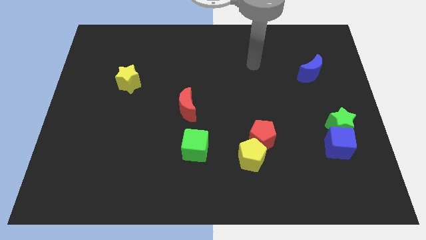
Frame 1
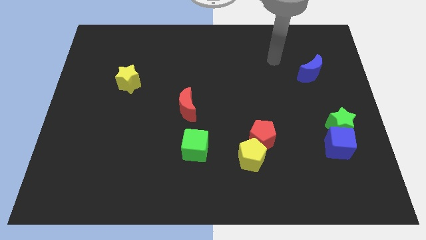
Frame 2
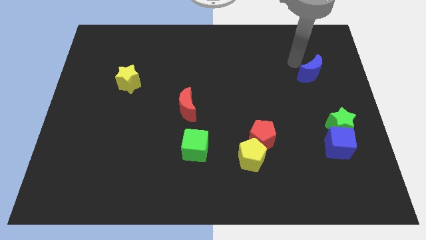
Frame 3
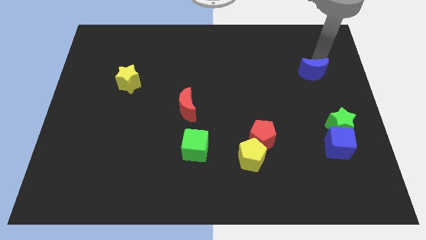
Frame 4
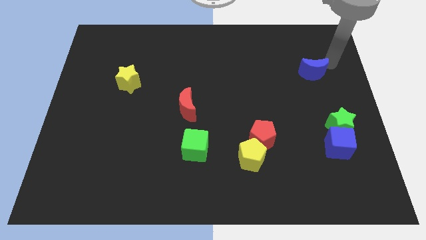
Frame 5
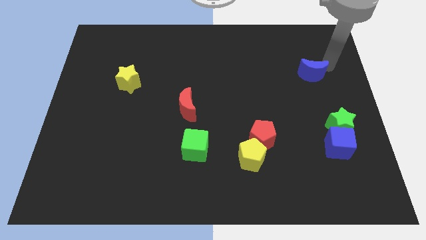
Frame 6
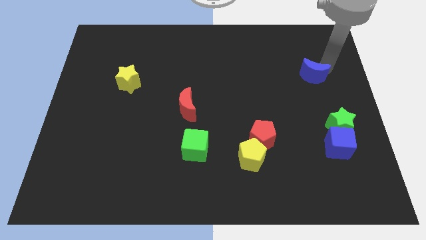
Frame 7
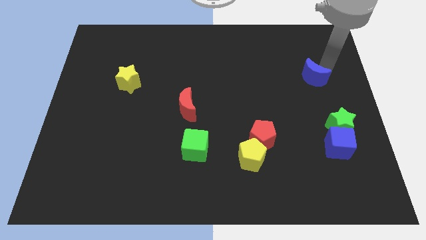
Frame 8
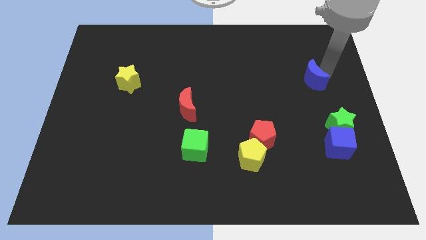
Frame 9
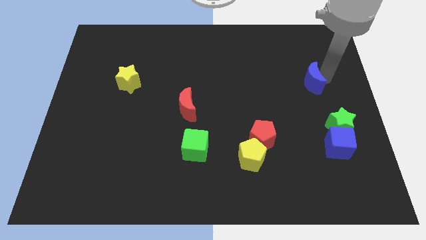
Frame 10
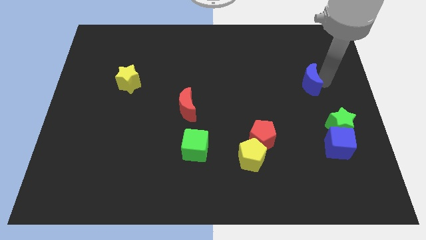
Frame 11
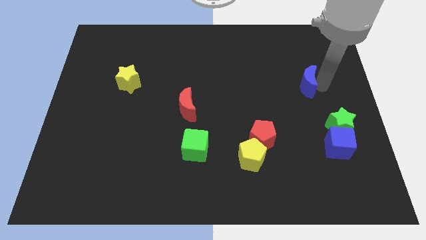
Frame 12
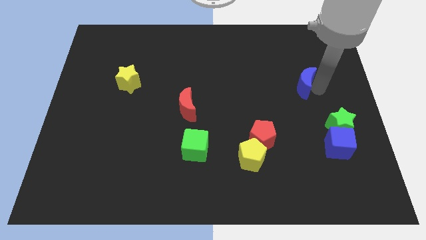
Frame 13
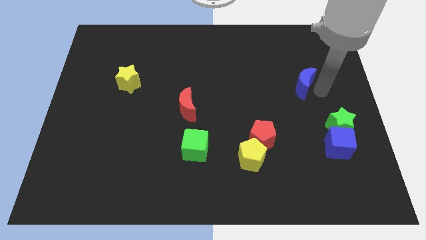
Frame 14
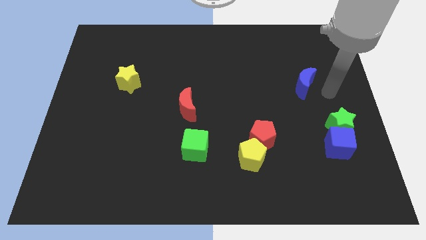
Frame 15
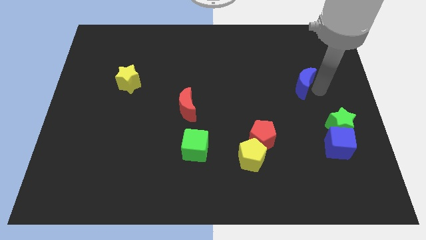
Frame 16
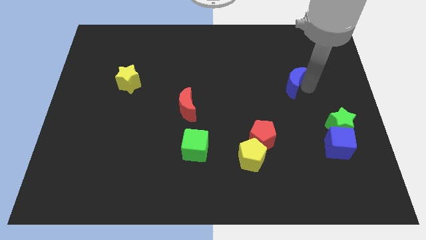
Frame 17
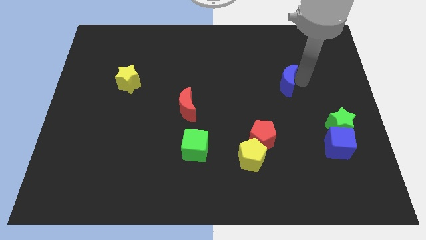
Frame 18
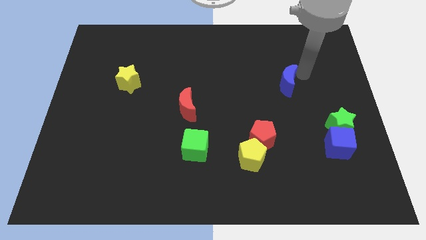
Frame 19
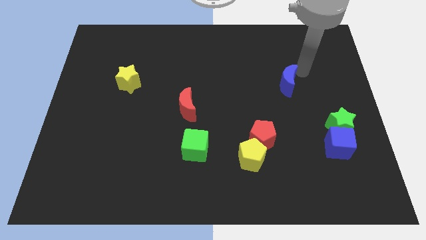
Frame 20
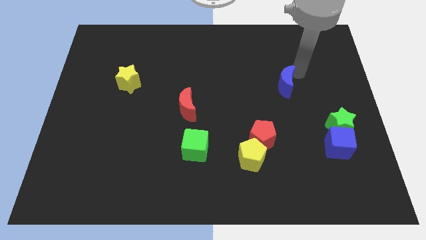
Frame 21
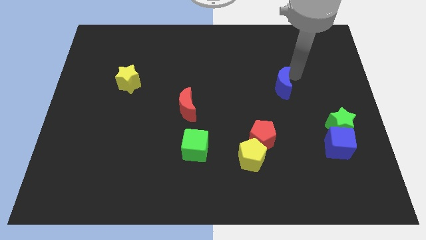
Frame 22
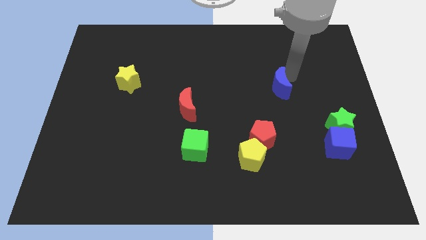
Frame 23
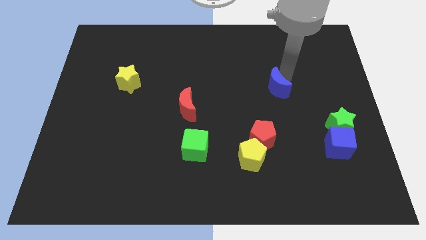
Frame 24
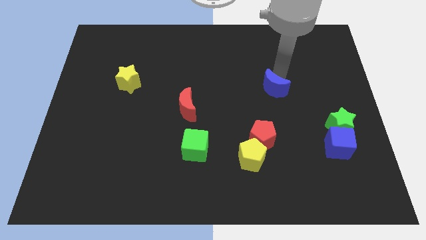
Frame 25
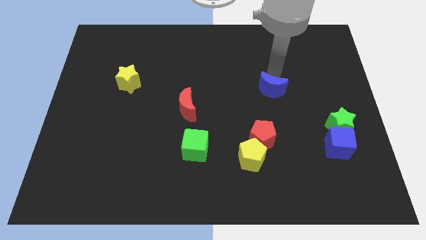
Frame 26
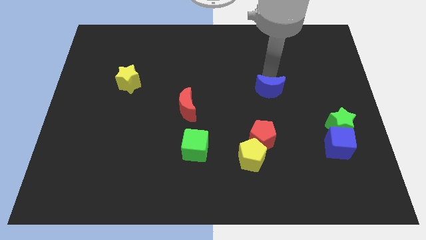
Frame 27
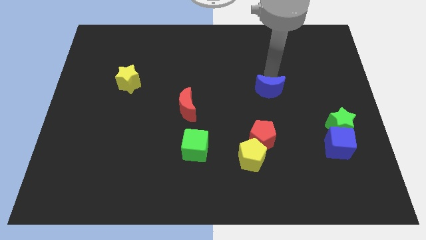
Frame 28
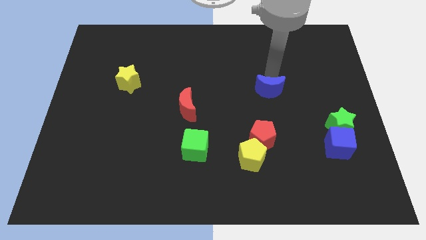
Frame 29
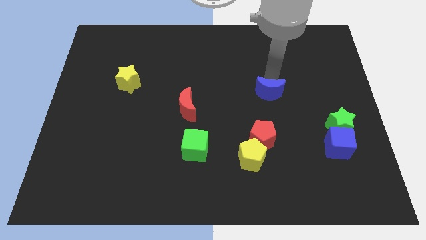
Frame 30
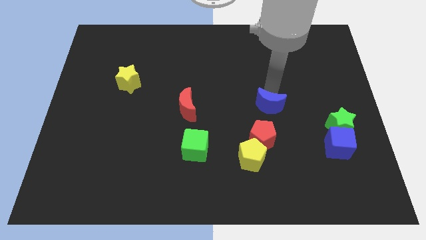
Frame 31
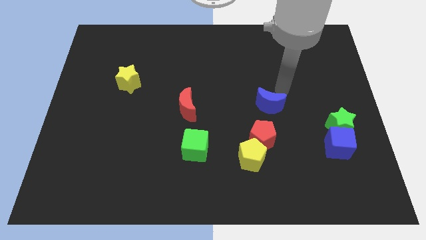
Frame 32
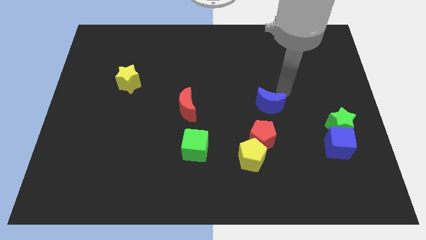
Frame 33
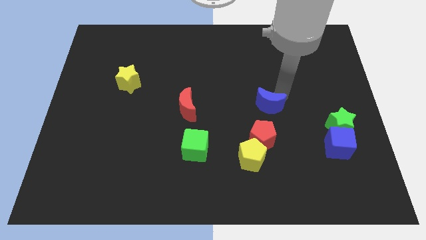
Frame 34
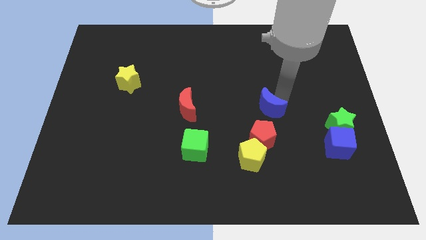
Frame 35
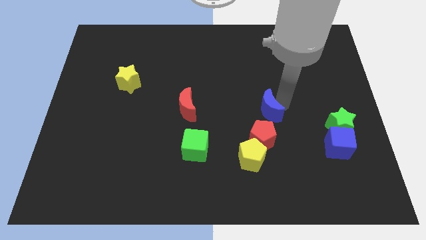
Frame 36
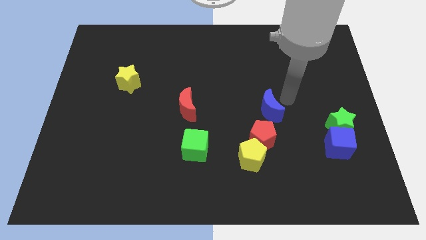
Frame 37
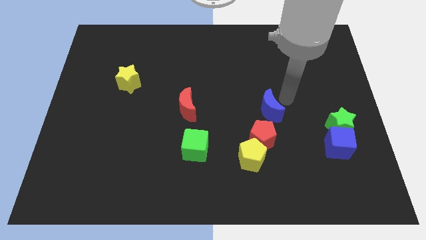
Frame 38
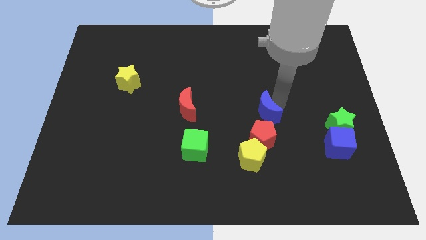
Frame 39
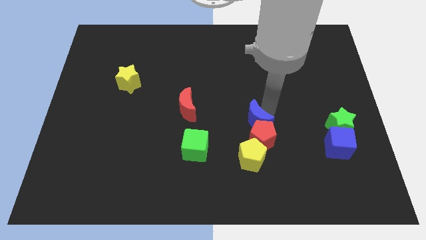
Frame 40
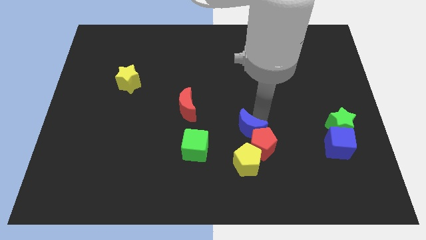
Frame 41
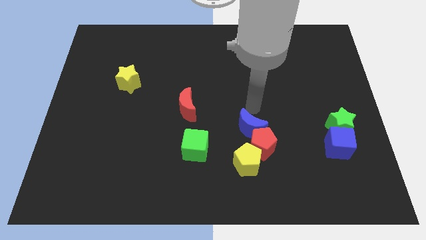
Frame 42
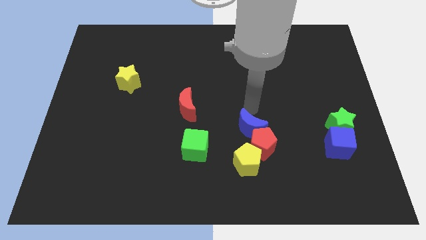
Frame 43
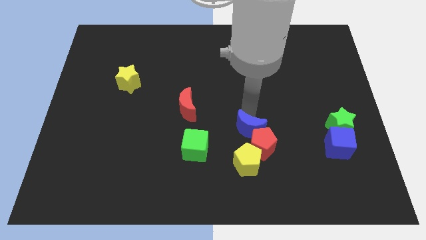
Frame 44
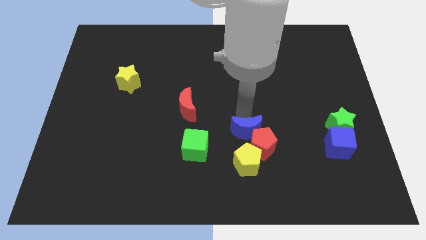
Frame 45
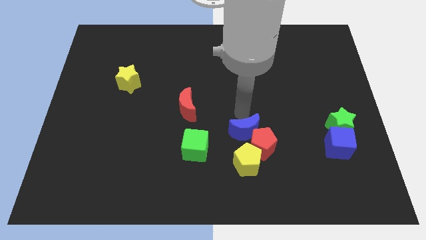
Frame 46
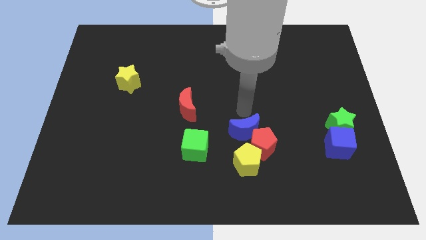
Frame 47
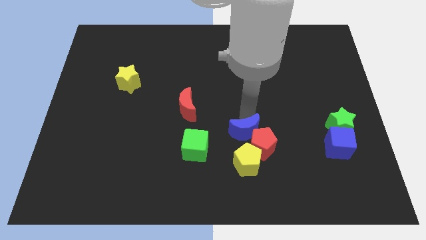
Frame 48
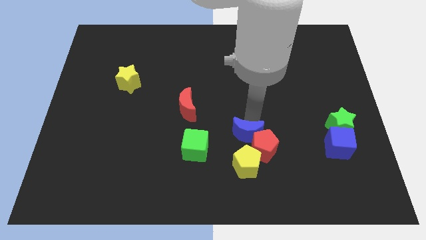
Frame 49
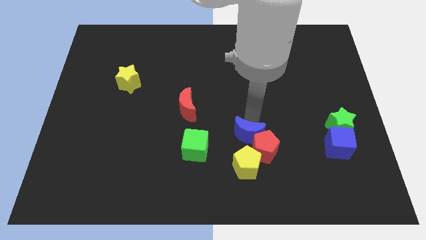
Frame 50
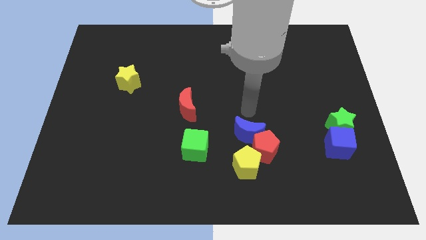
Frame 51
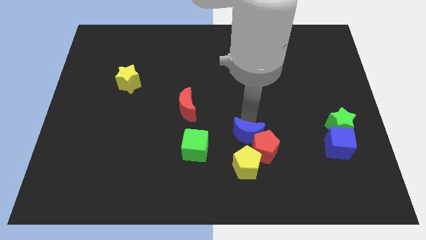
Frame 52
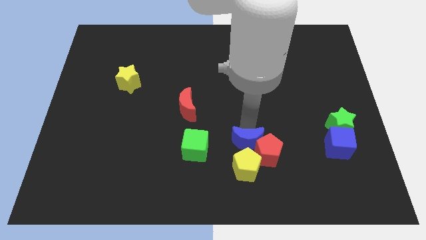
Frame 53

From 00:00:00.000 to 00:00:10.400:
put the blue moon to the yellow pentagon

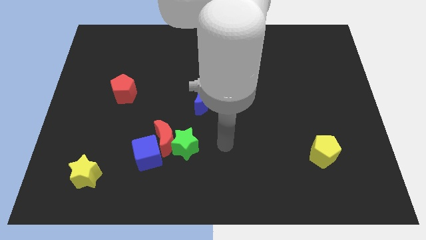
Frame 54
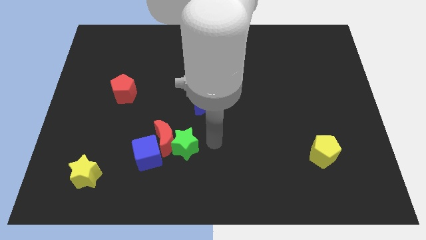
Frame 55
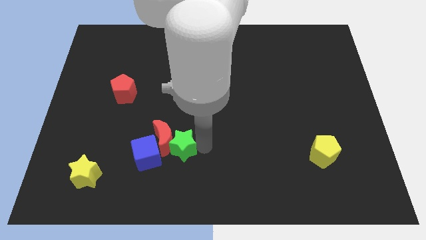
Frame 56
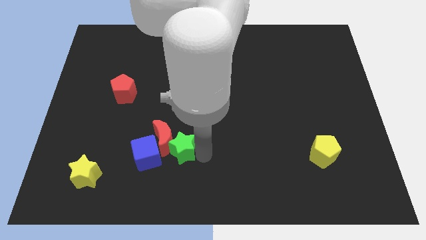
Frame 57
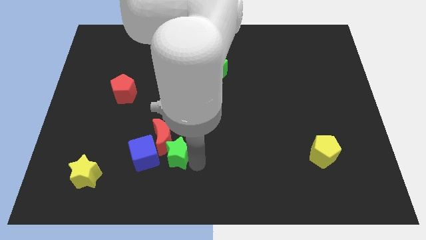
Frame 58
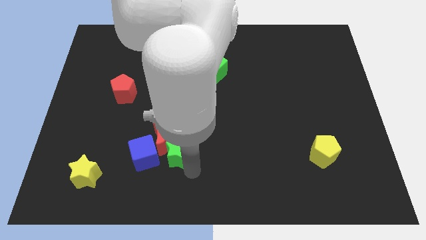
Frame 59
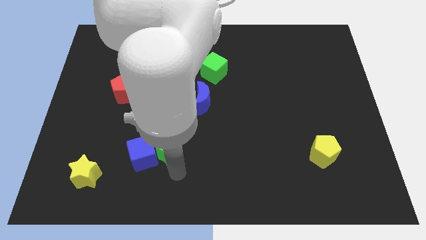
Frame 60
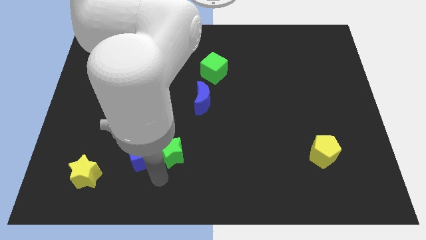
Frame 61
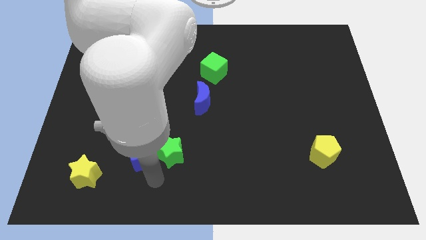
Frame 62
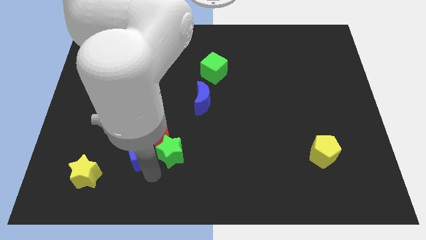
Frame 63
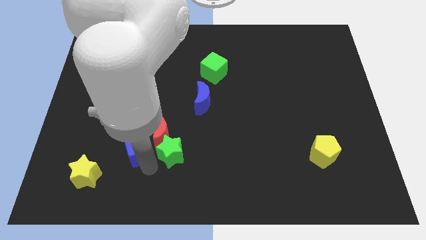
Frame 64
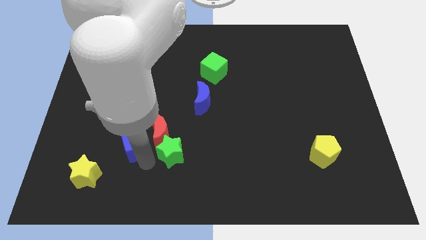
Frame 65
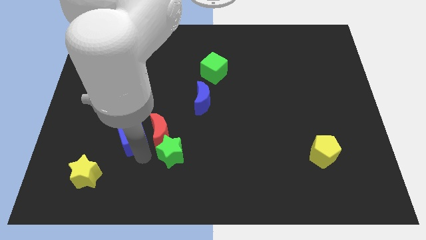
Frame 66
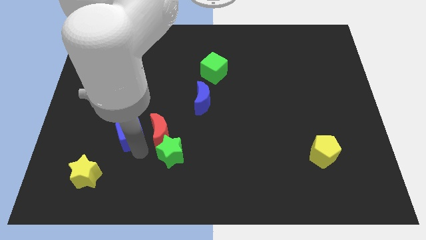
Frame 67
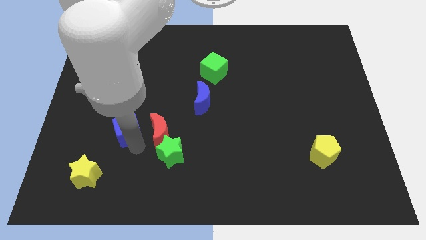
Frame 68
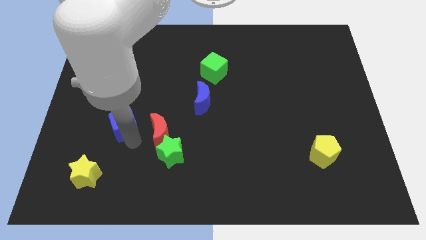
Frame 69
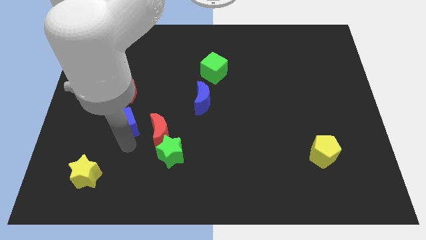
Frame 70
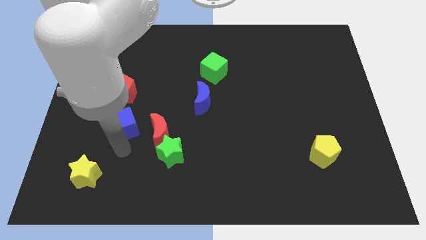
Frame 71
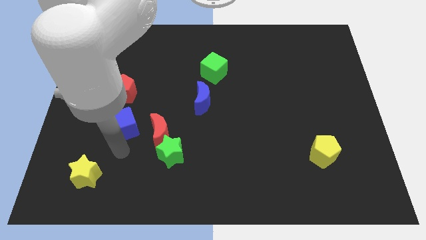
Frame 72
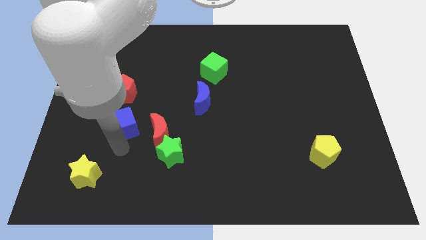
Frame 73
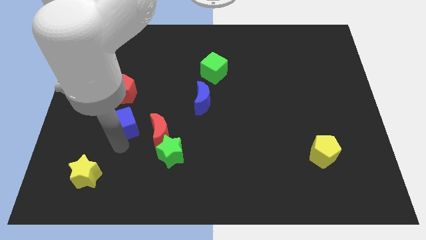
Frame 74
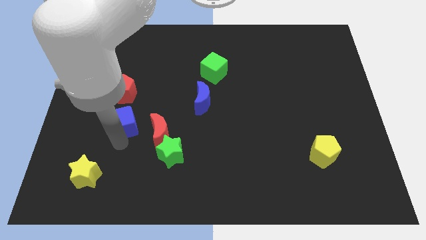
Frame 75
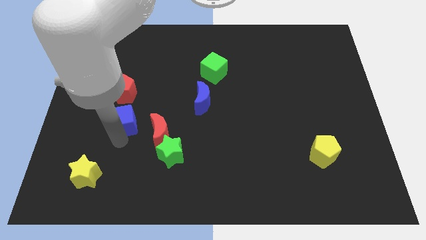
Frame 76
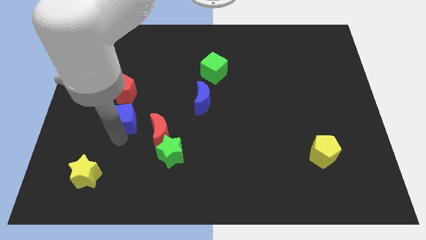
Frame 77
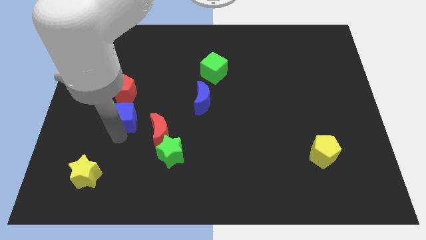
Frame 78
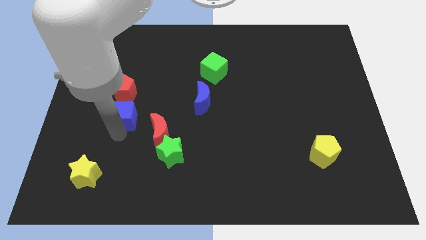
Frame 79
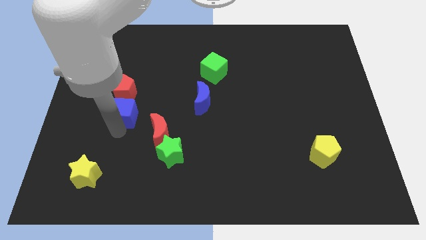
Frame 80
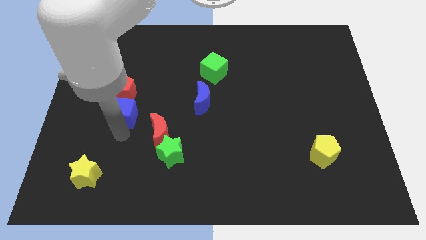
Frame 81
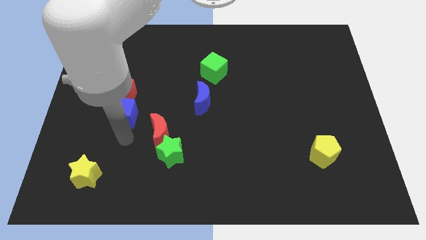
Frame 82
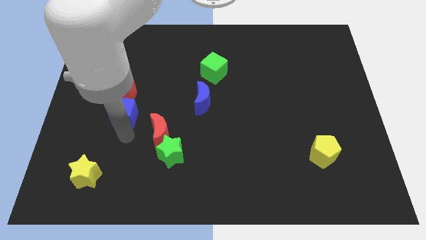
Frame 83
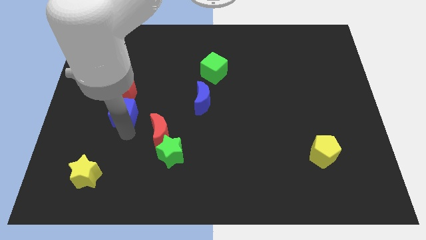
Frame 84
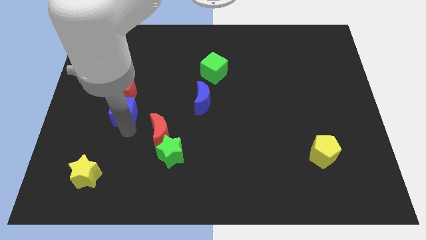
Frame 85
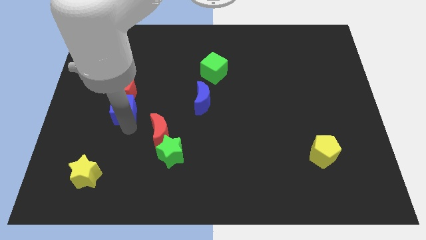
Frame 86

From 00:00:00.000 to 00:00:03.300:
push the blue cube next to the red pentagon
